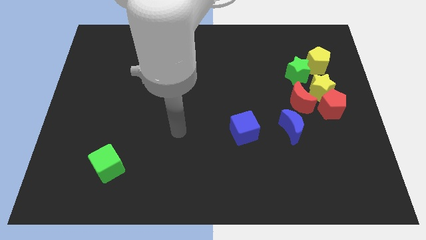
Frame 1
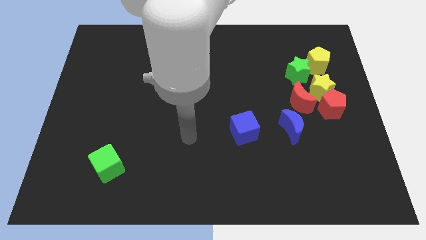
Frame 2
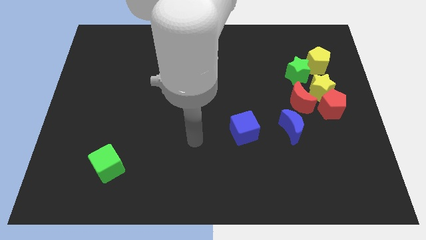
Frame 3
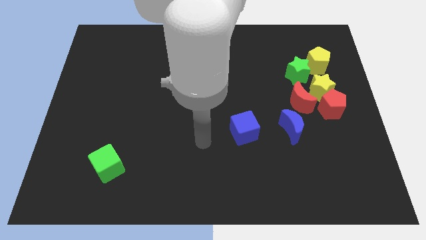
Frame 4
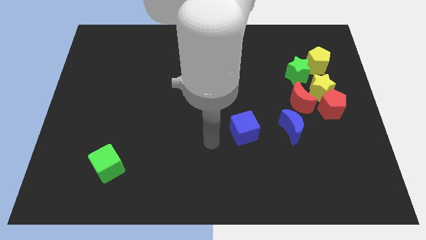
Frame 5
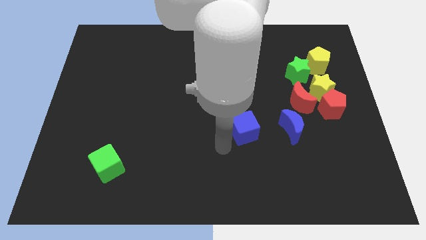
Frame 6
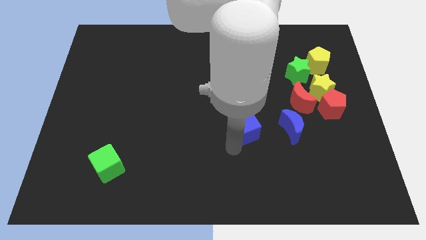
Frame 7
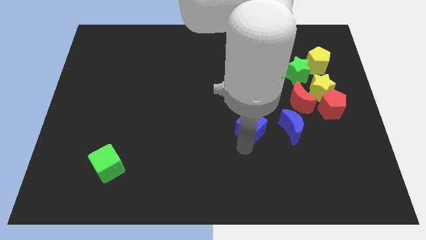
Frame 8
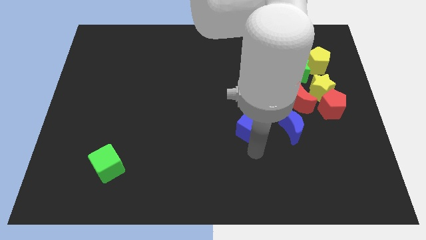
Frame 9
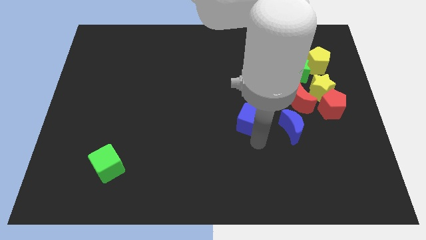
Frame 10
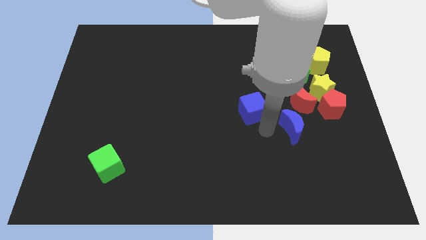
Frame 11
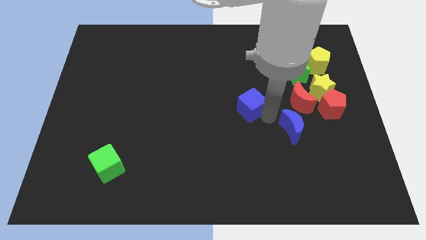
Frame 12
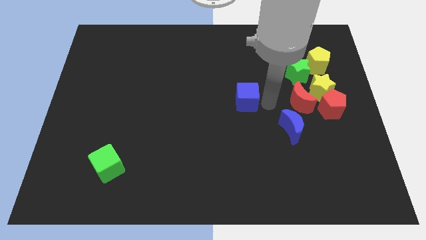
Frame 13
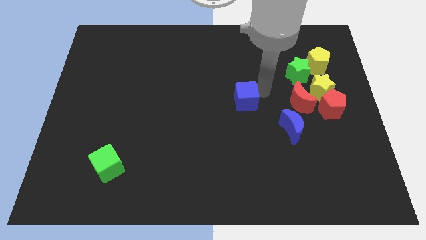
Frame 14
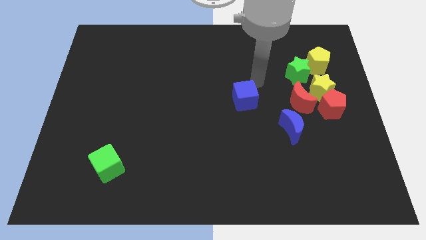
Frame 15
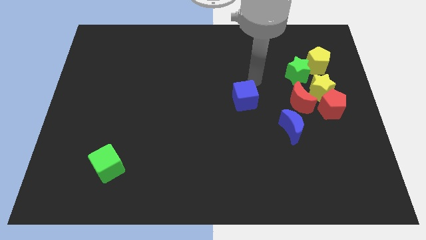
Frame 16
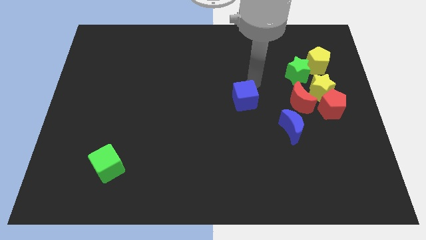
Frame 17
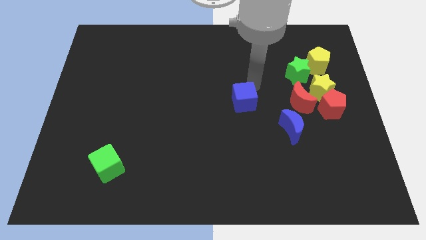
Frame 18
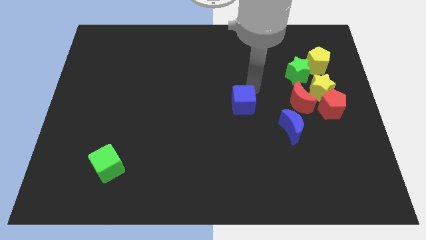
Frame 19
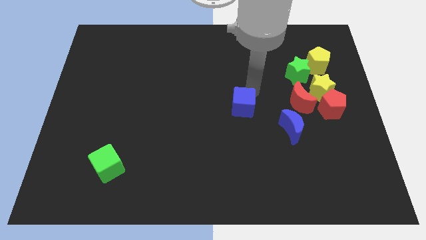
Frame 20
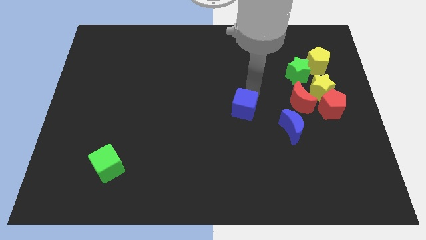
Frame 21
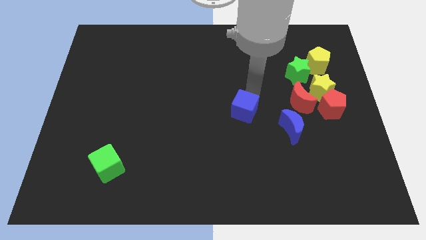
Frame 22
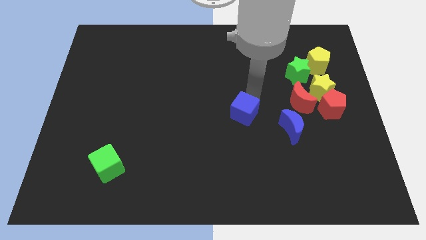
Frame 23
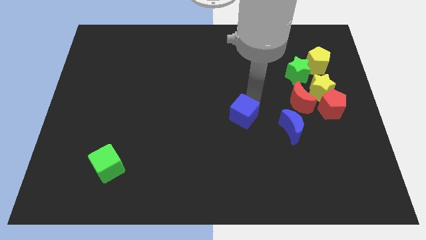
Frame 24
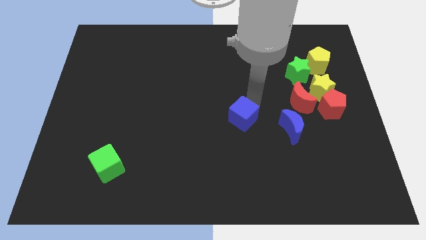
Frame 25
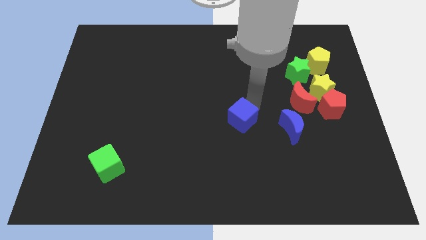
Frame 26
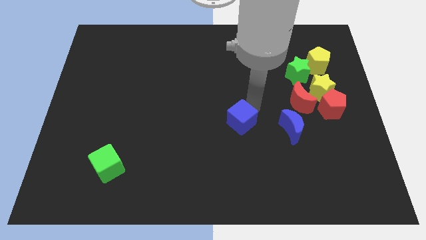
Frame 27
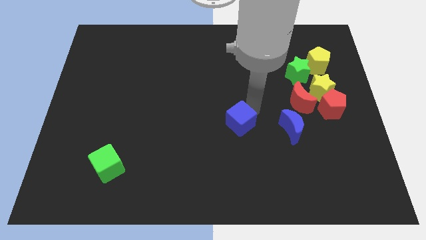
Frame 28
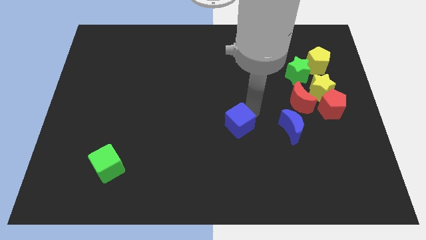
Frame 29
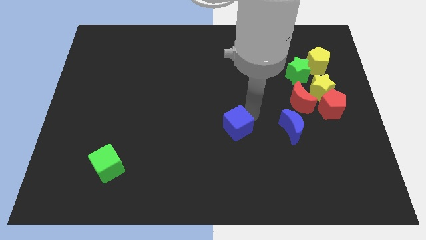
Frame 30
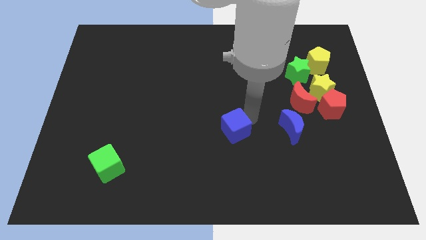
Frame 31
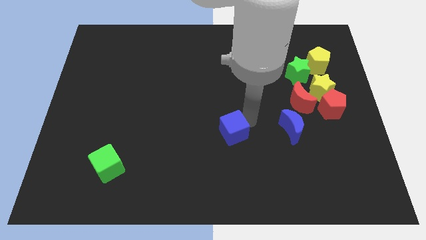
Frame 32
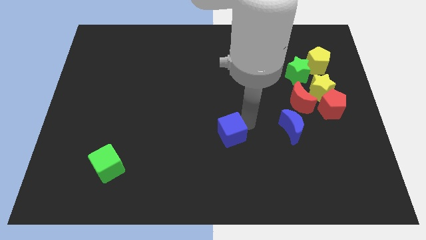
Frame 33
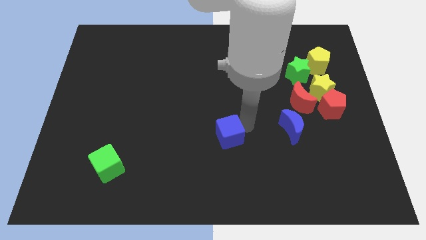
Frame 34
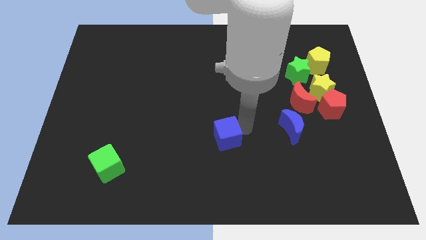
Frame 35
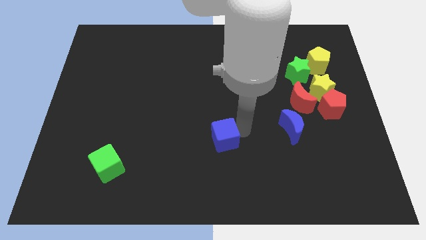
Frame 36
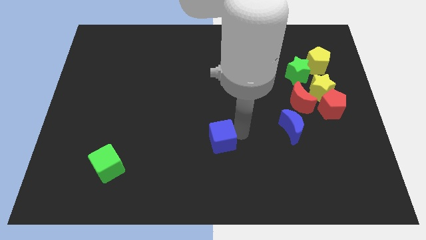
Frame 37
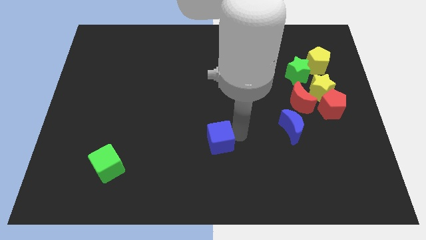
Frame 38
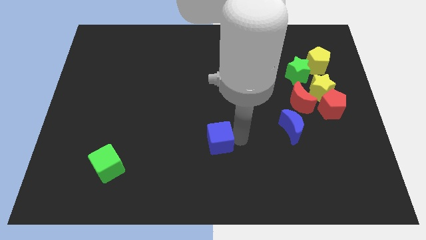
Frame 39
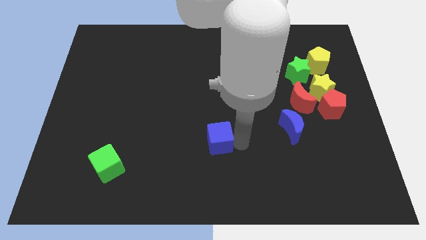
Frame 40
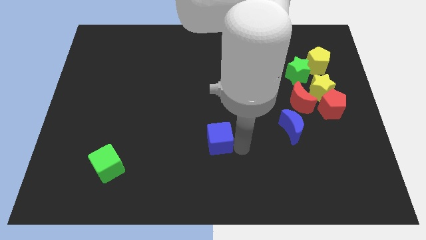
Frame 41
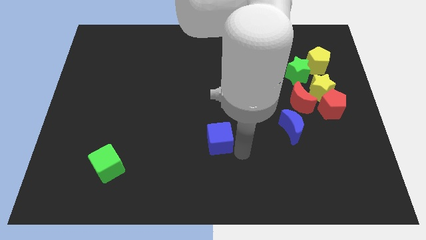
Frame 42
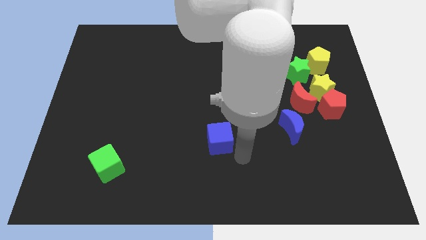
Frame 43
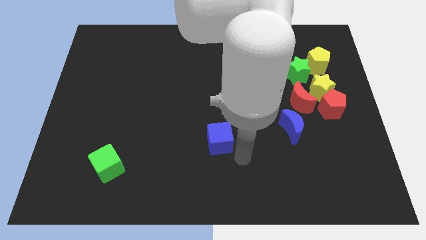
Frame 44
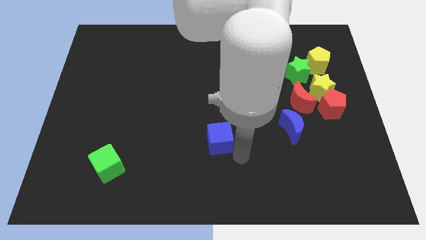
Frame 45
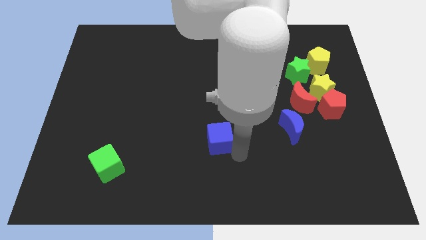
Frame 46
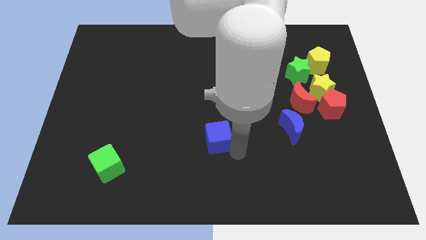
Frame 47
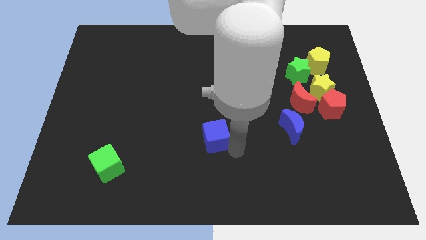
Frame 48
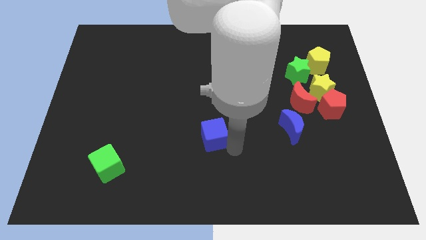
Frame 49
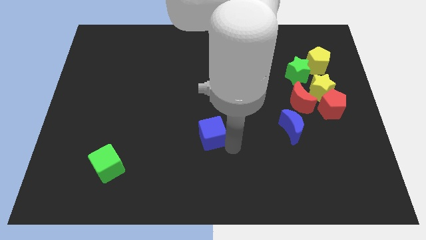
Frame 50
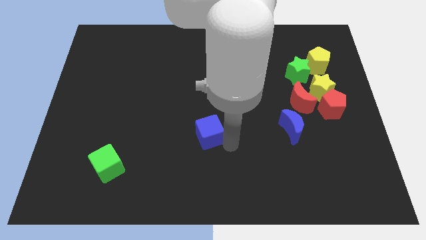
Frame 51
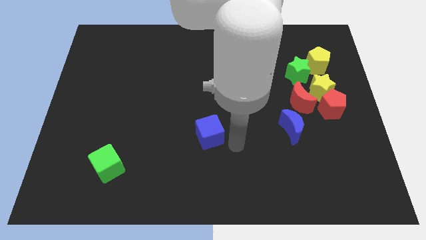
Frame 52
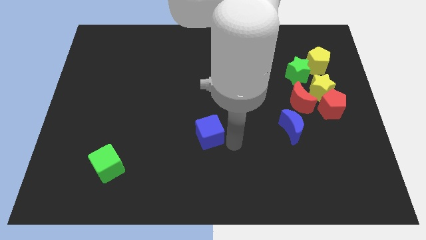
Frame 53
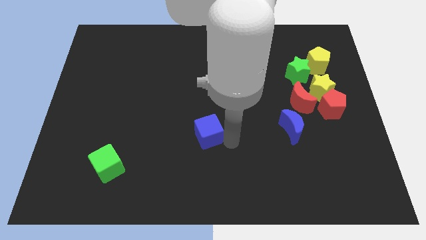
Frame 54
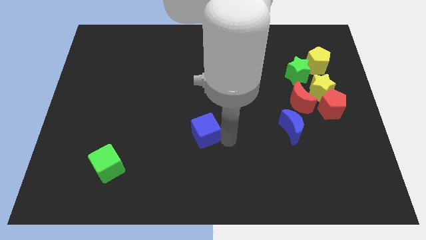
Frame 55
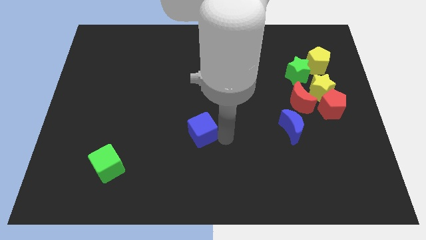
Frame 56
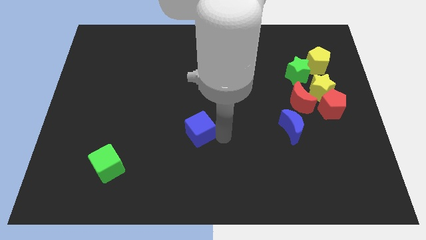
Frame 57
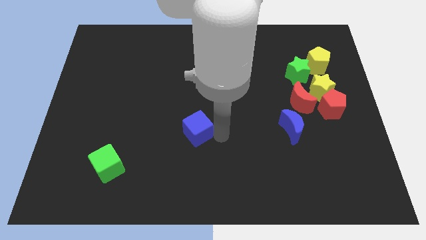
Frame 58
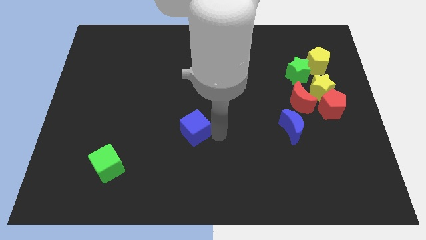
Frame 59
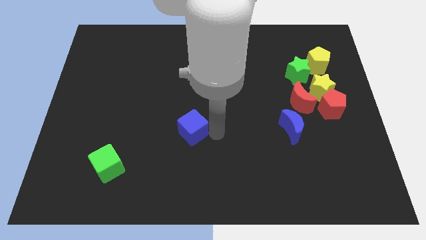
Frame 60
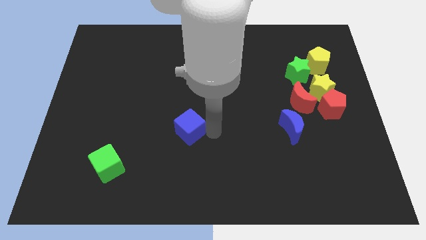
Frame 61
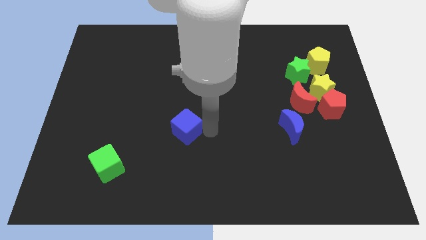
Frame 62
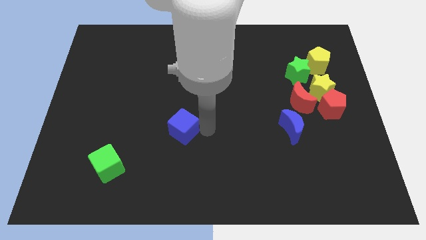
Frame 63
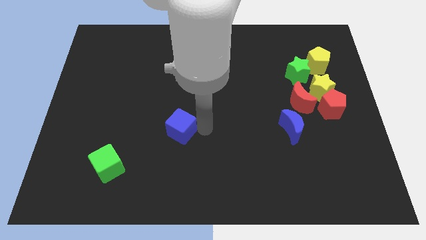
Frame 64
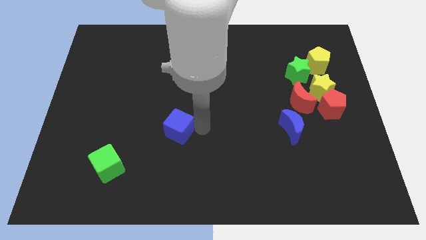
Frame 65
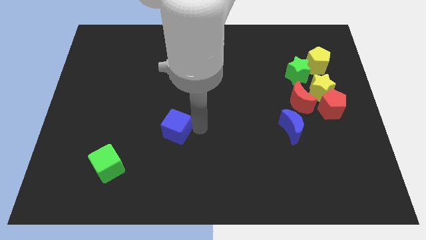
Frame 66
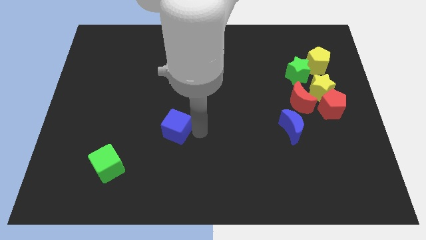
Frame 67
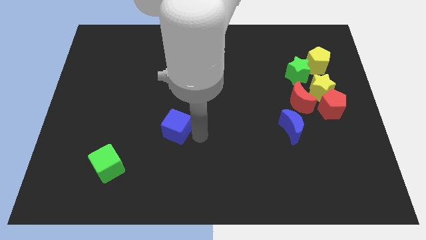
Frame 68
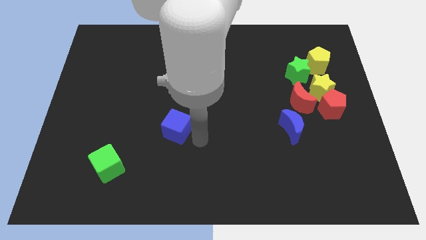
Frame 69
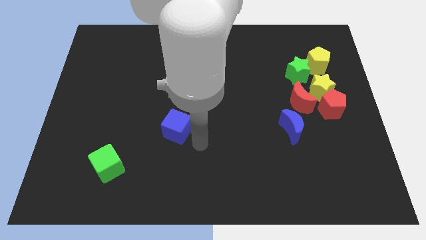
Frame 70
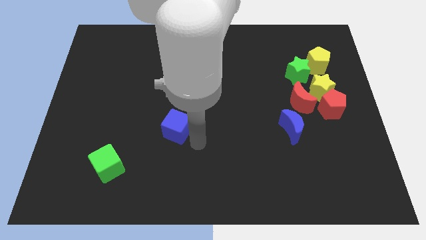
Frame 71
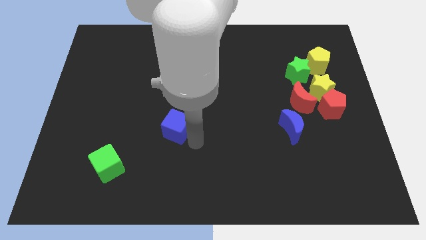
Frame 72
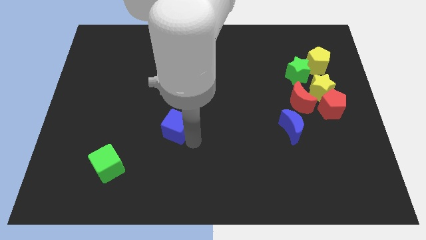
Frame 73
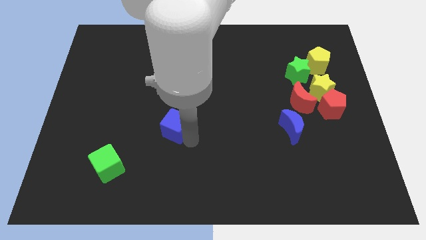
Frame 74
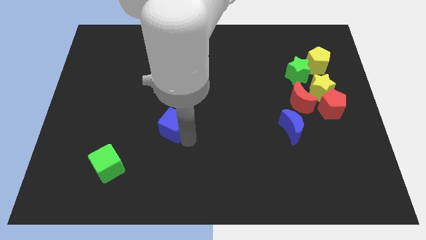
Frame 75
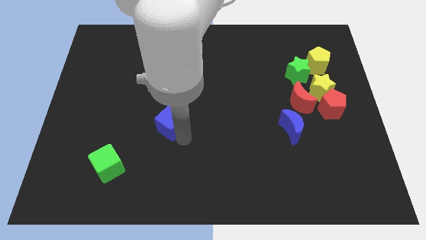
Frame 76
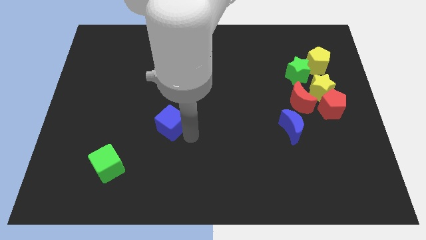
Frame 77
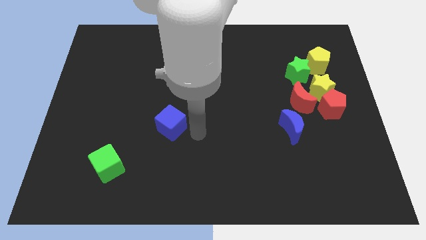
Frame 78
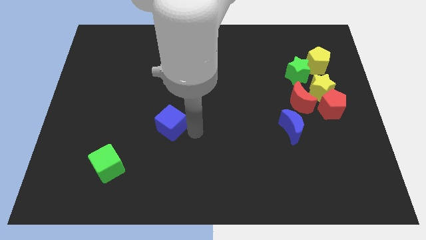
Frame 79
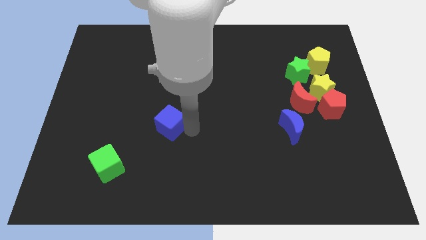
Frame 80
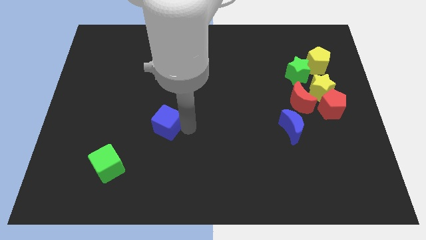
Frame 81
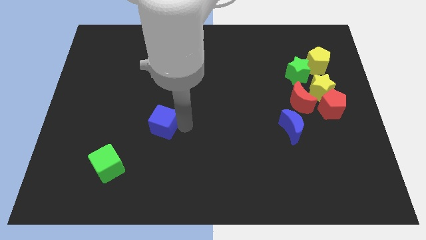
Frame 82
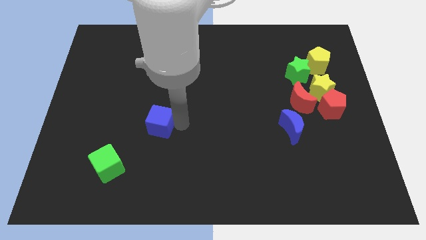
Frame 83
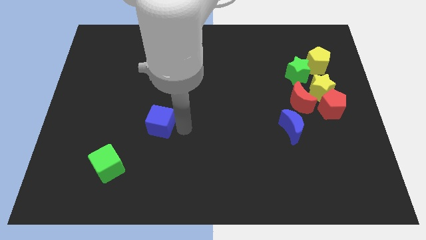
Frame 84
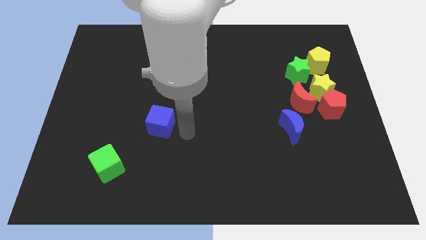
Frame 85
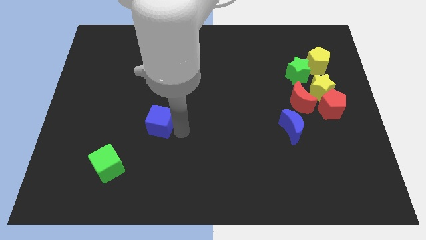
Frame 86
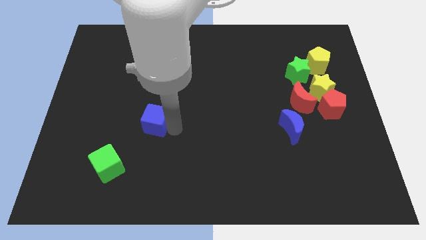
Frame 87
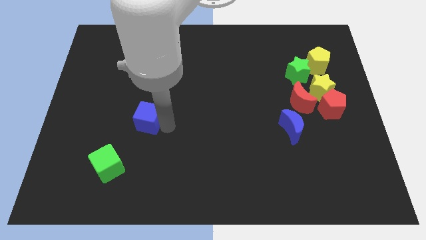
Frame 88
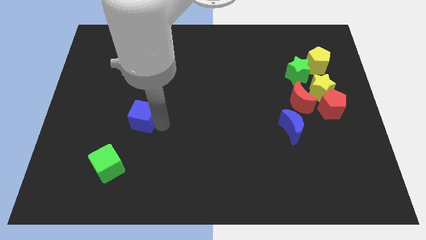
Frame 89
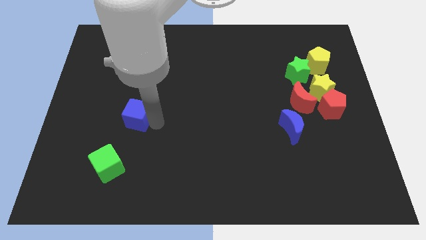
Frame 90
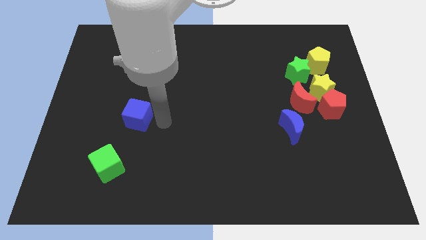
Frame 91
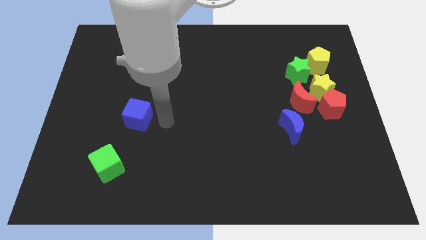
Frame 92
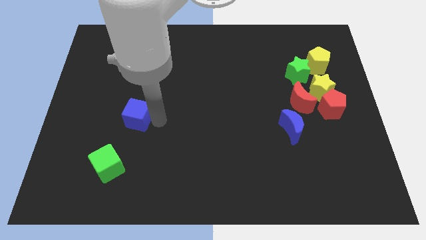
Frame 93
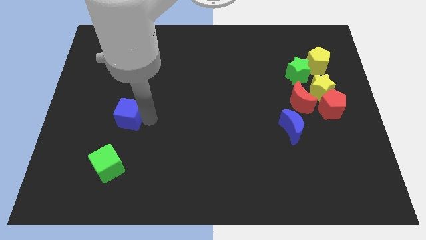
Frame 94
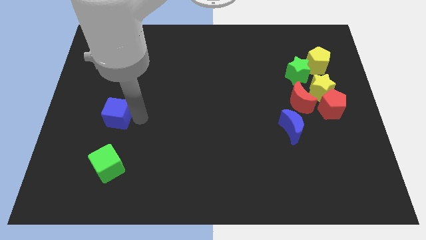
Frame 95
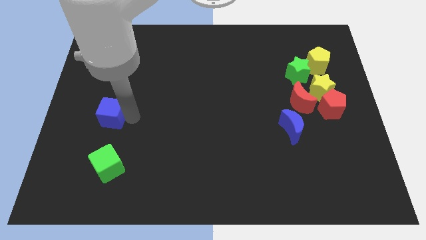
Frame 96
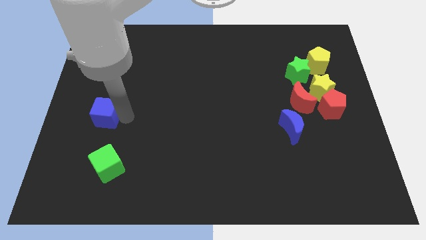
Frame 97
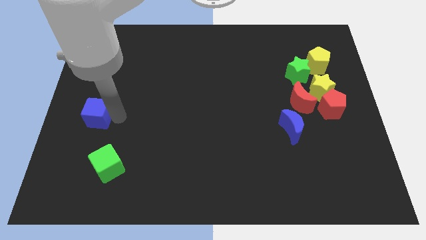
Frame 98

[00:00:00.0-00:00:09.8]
put the blue cube to the left side of the board
